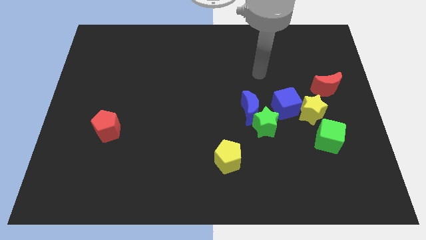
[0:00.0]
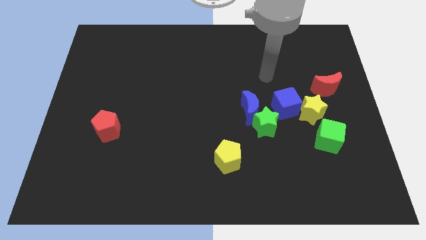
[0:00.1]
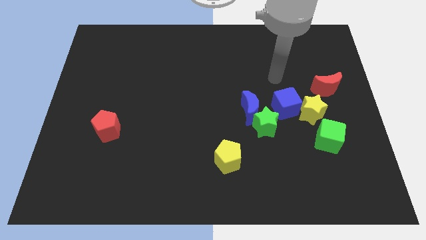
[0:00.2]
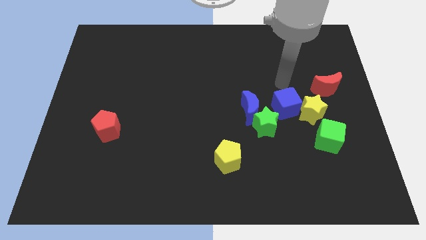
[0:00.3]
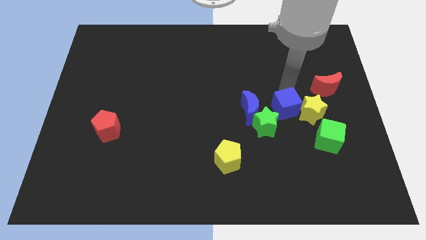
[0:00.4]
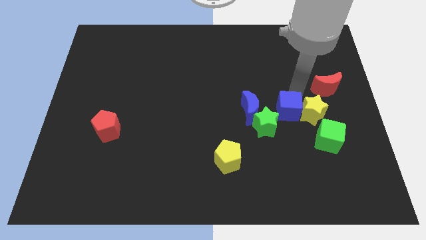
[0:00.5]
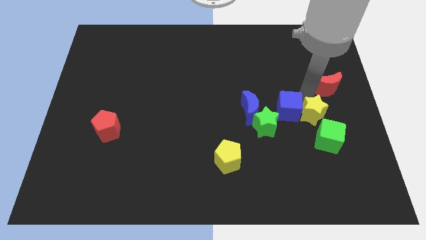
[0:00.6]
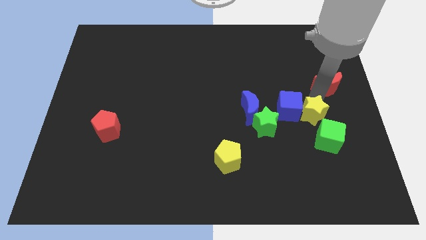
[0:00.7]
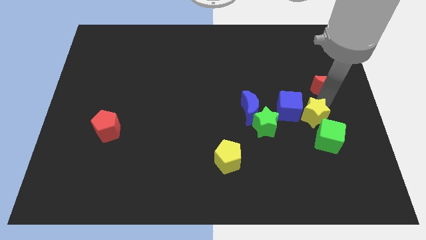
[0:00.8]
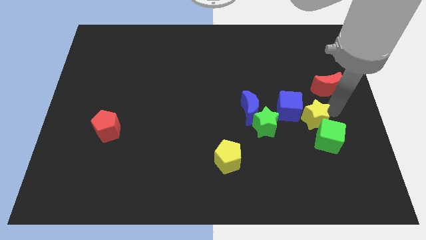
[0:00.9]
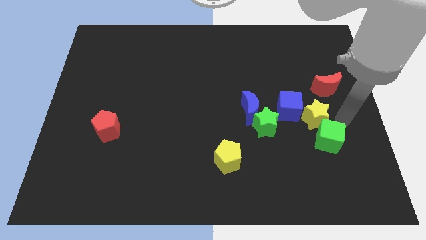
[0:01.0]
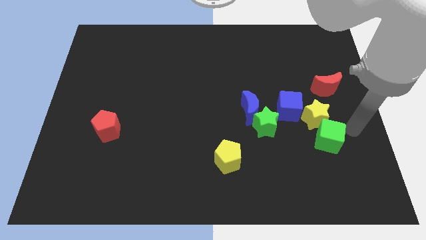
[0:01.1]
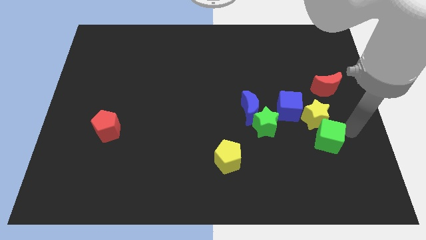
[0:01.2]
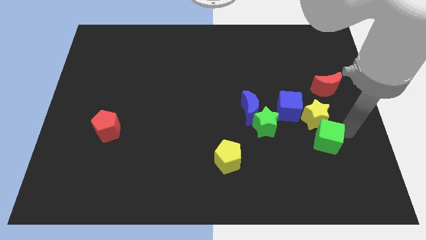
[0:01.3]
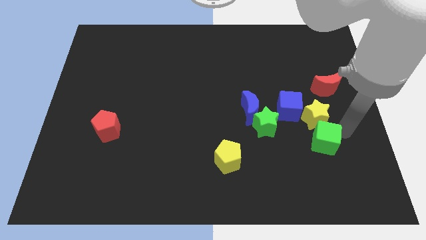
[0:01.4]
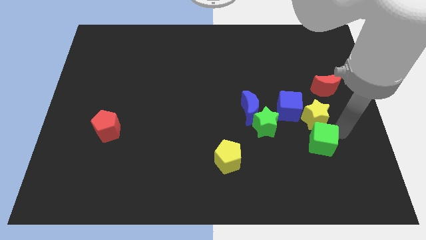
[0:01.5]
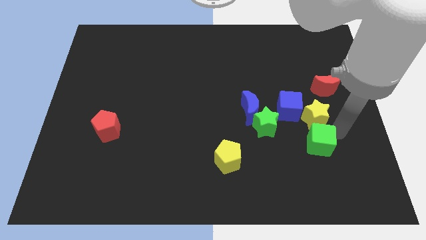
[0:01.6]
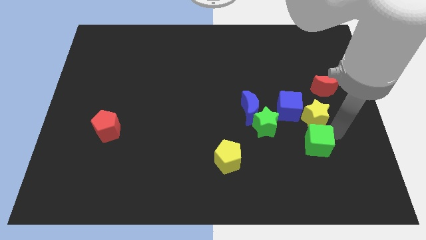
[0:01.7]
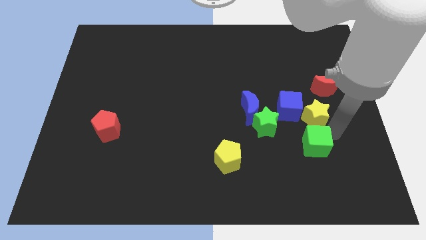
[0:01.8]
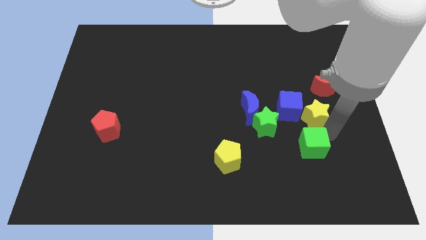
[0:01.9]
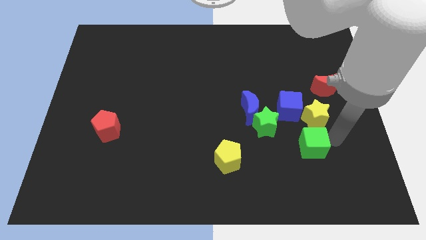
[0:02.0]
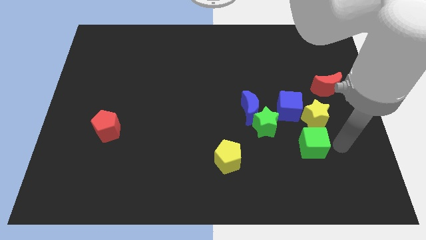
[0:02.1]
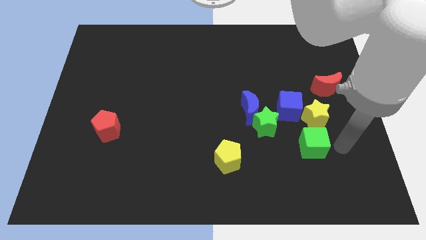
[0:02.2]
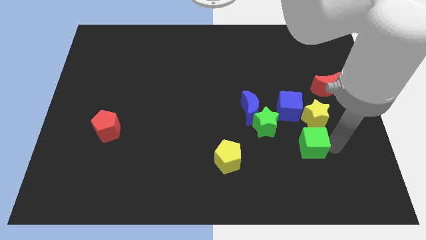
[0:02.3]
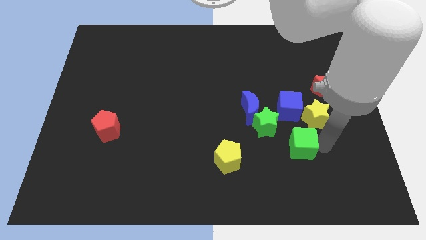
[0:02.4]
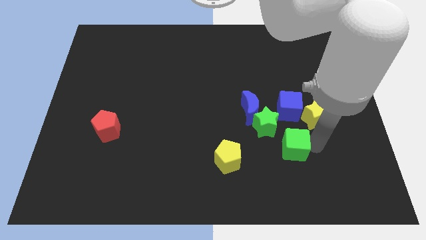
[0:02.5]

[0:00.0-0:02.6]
slightly push the green cube left

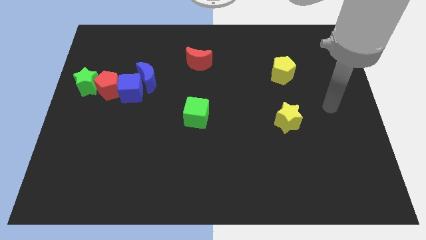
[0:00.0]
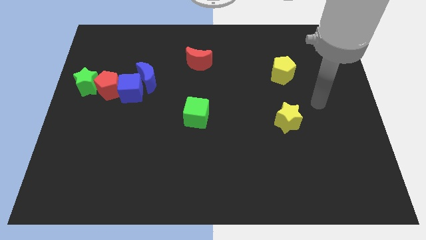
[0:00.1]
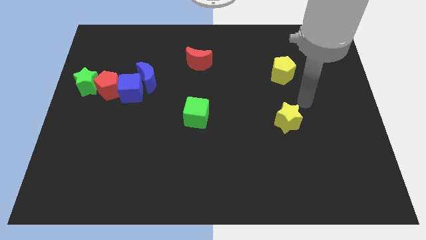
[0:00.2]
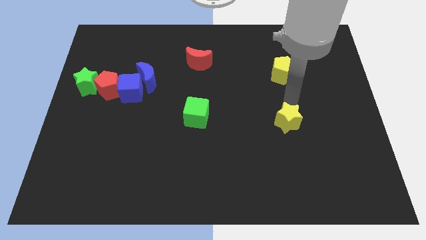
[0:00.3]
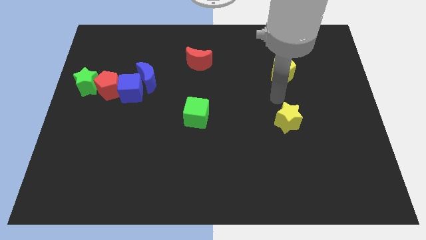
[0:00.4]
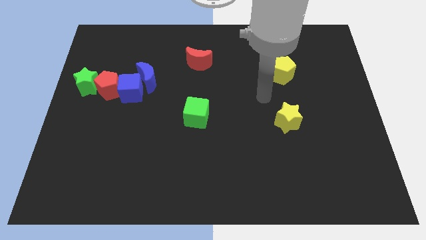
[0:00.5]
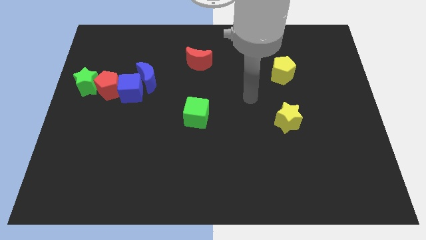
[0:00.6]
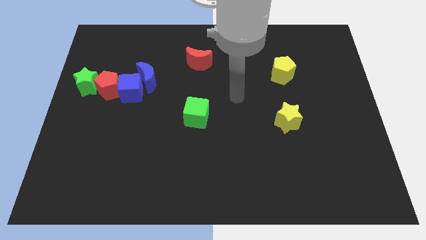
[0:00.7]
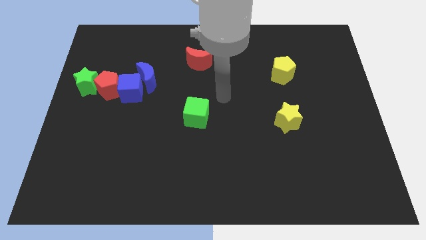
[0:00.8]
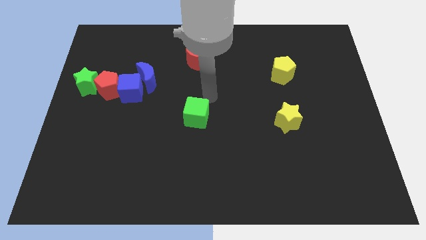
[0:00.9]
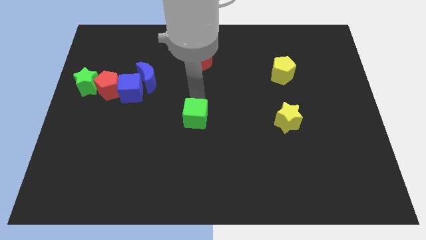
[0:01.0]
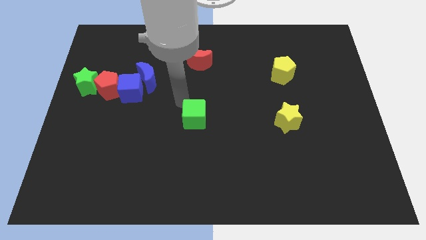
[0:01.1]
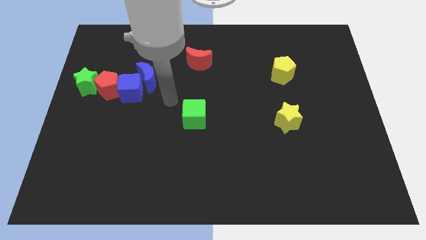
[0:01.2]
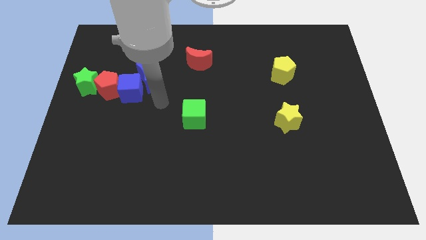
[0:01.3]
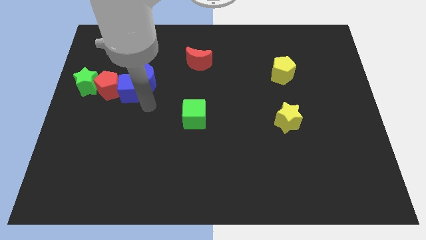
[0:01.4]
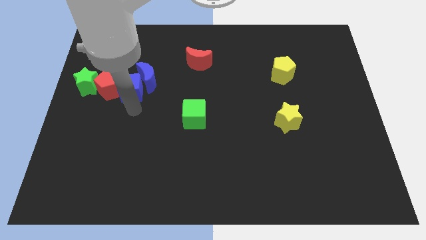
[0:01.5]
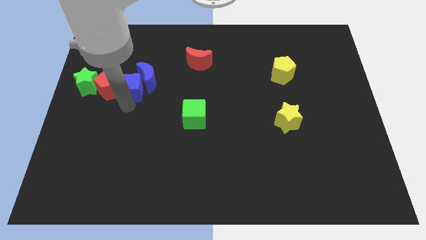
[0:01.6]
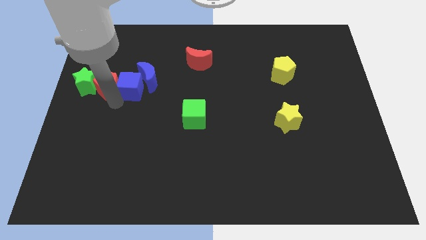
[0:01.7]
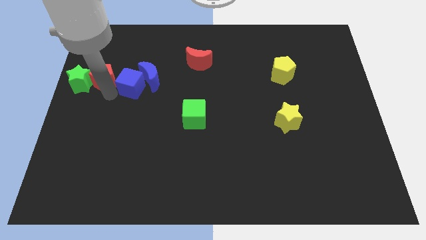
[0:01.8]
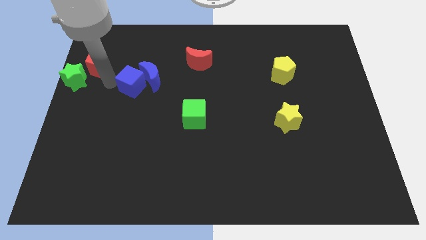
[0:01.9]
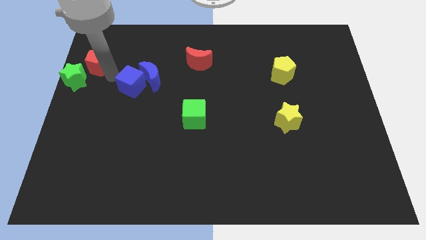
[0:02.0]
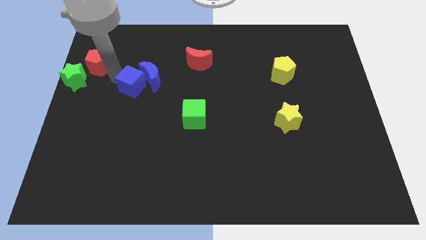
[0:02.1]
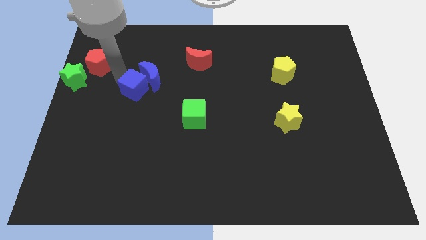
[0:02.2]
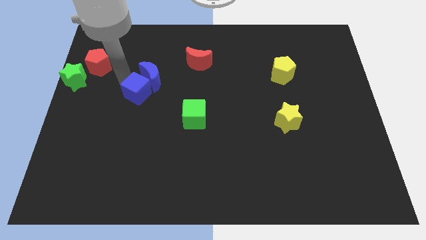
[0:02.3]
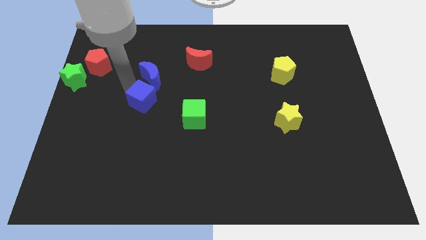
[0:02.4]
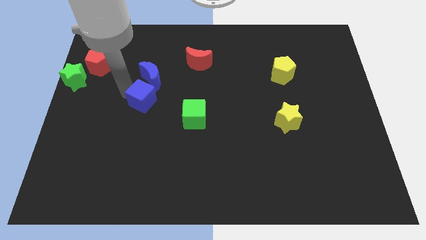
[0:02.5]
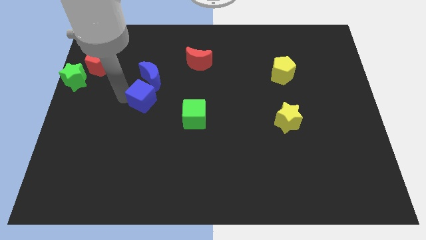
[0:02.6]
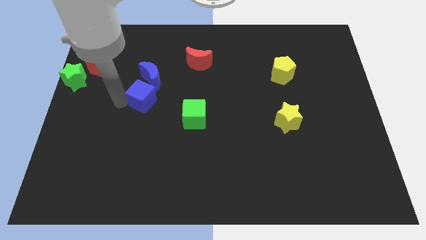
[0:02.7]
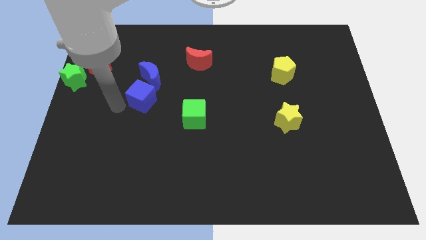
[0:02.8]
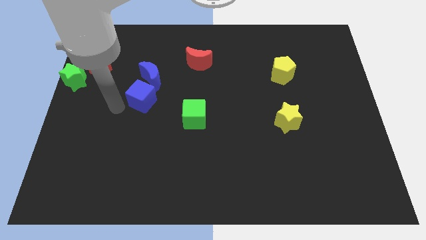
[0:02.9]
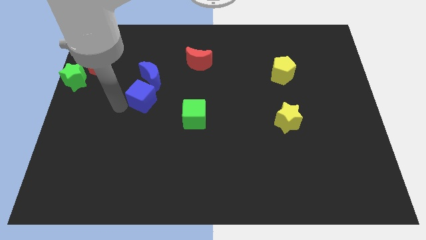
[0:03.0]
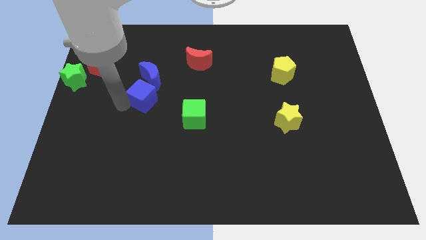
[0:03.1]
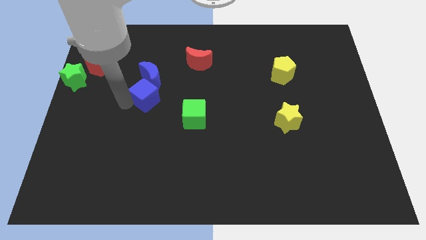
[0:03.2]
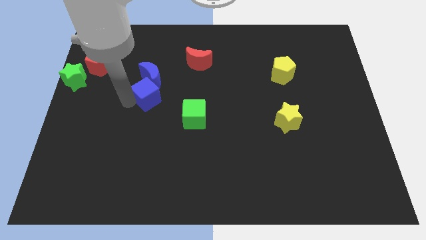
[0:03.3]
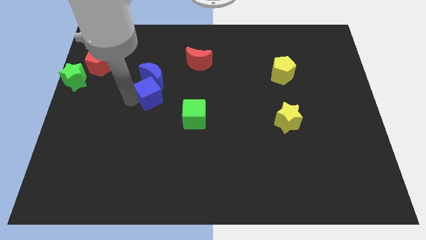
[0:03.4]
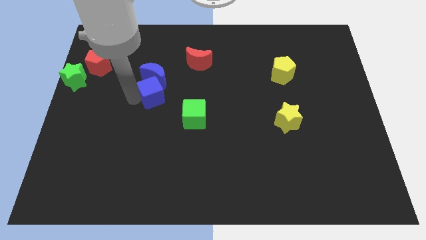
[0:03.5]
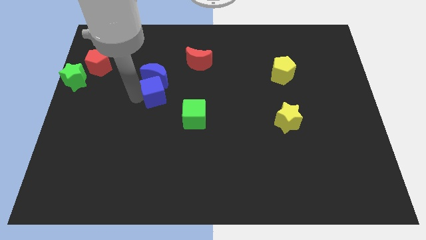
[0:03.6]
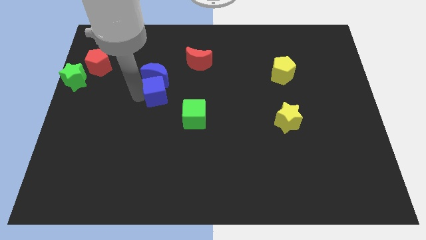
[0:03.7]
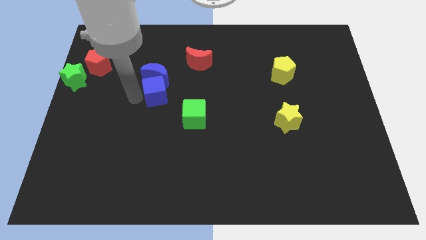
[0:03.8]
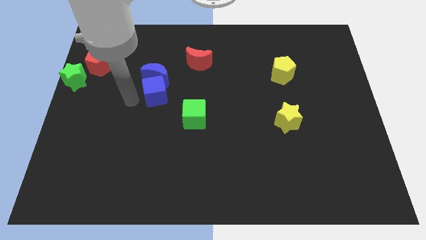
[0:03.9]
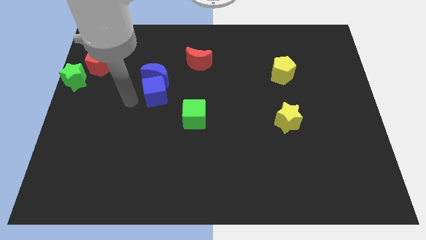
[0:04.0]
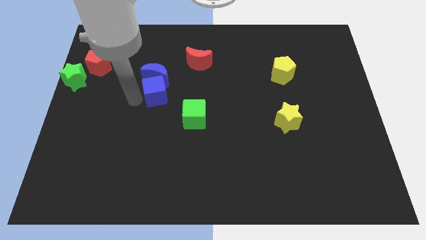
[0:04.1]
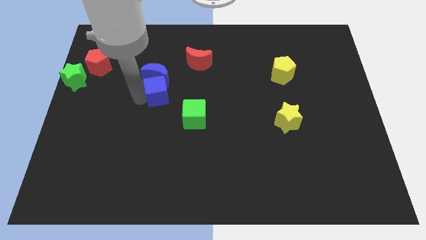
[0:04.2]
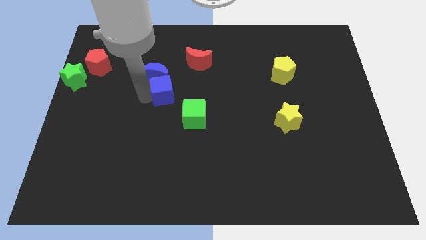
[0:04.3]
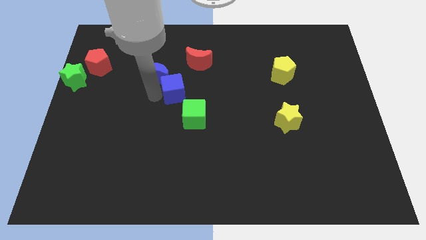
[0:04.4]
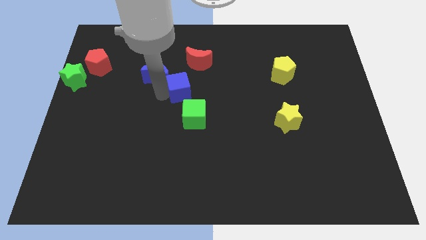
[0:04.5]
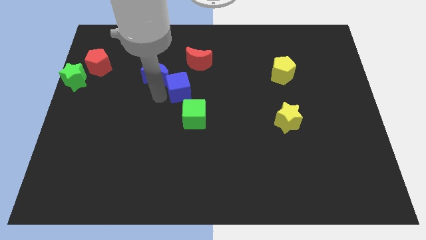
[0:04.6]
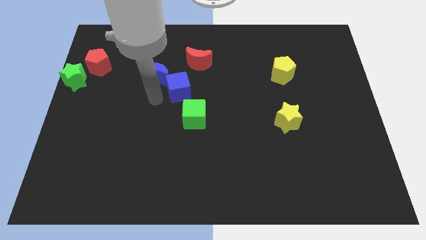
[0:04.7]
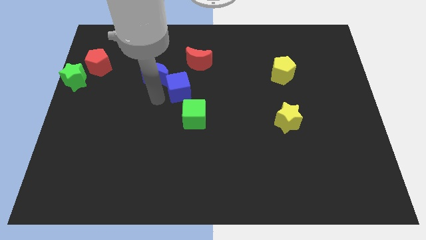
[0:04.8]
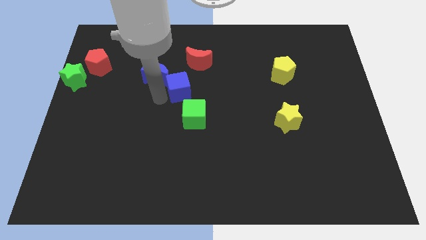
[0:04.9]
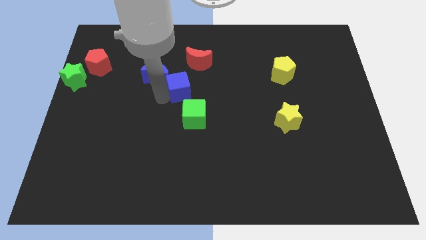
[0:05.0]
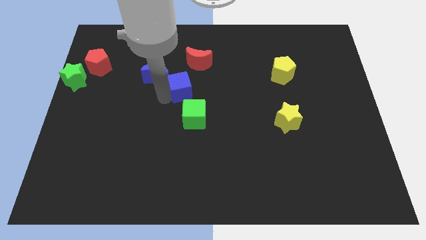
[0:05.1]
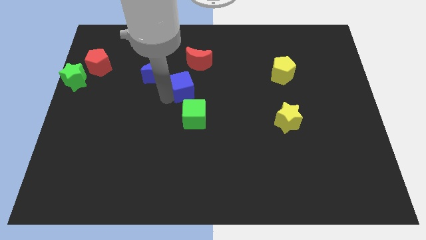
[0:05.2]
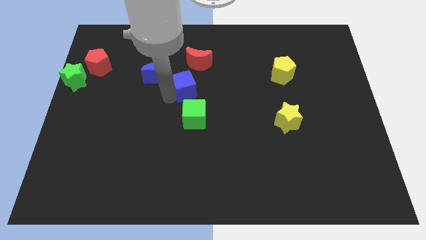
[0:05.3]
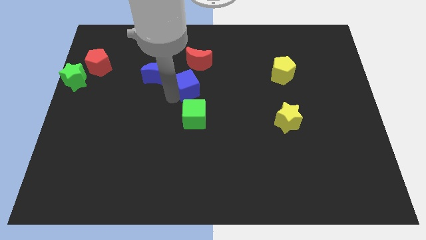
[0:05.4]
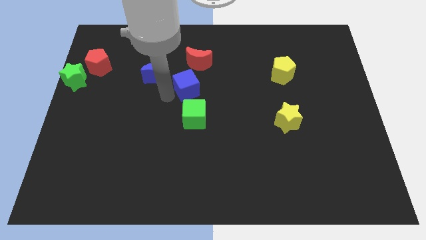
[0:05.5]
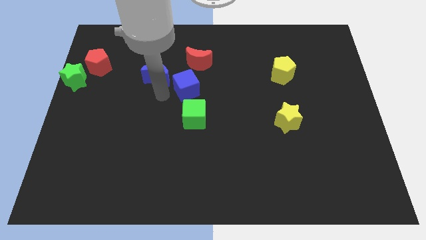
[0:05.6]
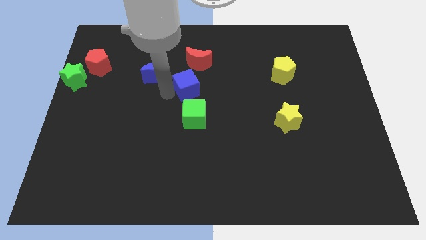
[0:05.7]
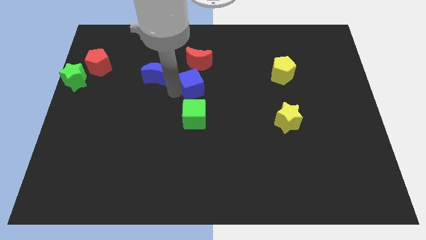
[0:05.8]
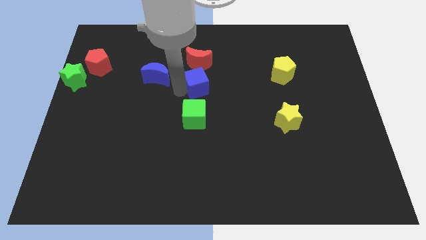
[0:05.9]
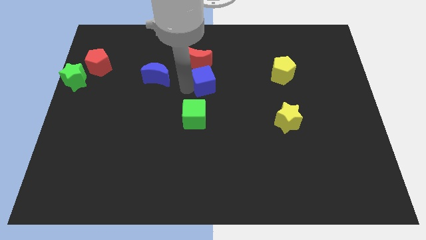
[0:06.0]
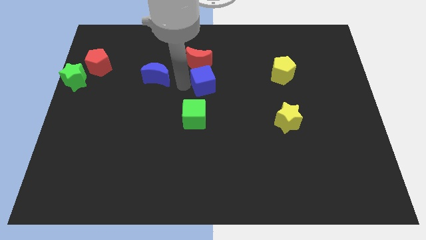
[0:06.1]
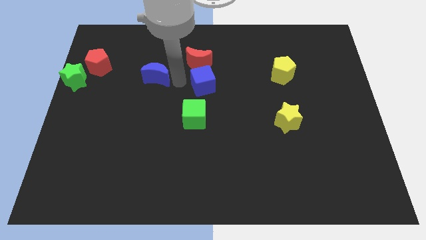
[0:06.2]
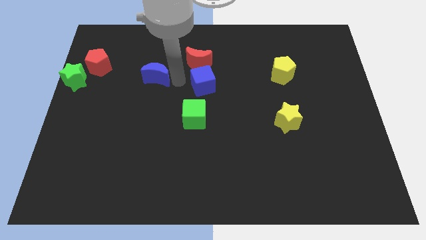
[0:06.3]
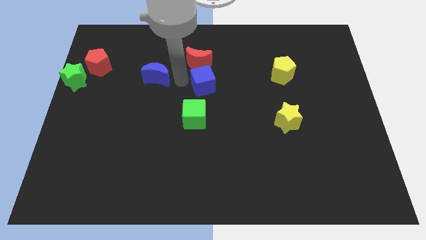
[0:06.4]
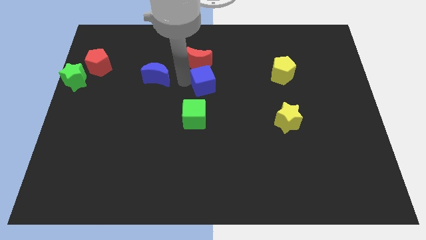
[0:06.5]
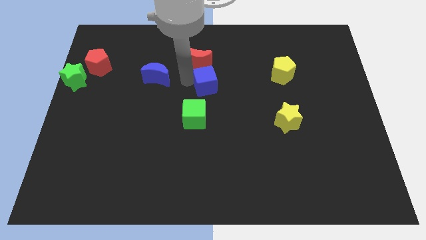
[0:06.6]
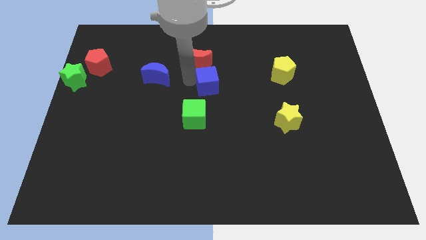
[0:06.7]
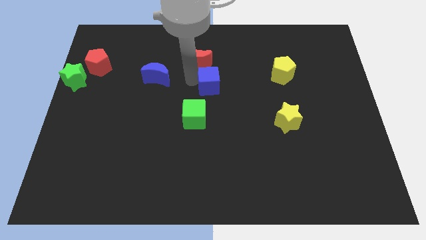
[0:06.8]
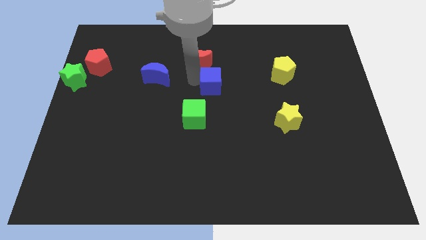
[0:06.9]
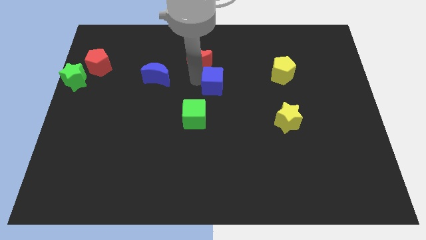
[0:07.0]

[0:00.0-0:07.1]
push the blue cube right
